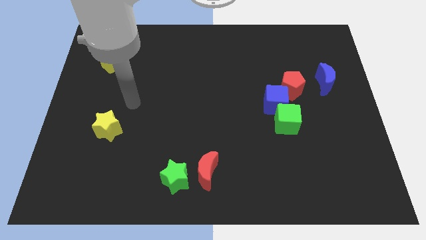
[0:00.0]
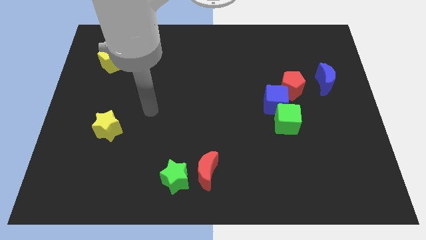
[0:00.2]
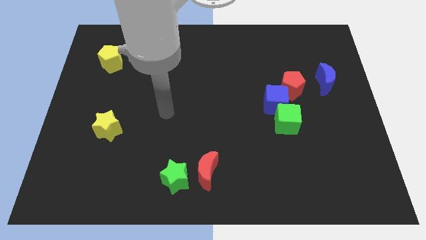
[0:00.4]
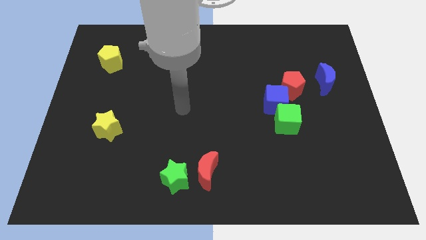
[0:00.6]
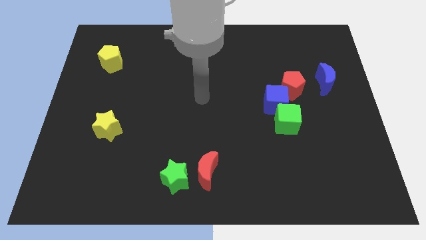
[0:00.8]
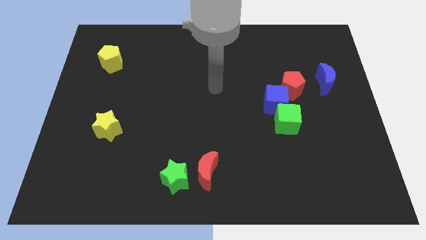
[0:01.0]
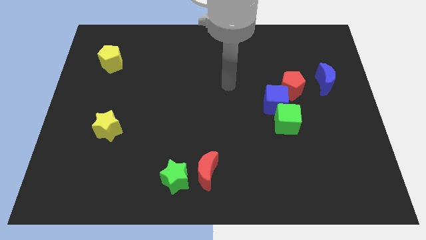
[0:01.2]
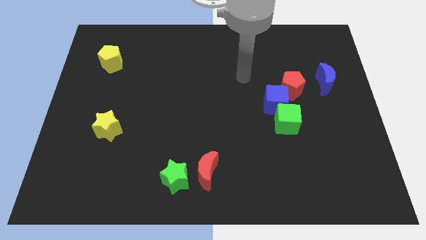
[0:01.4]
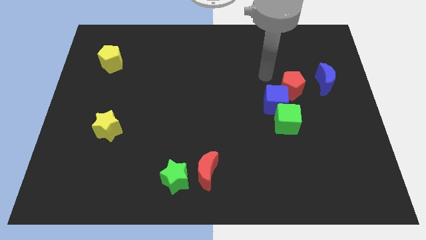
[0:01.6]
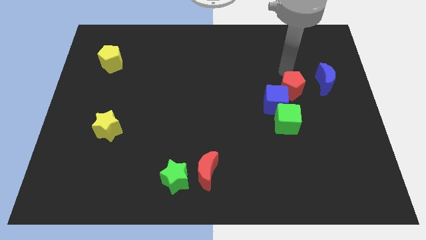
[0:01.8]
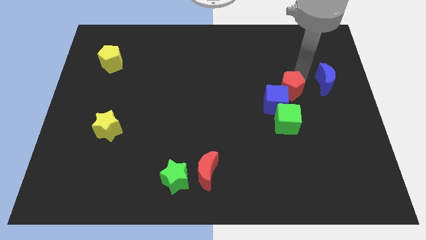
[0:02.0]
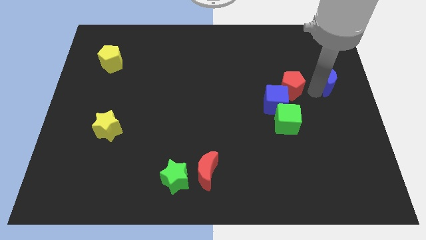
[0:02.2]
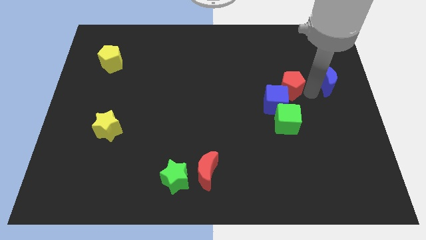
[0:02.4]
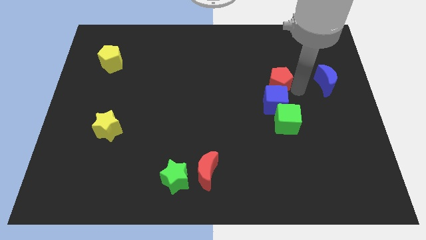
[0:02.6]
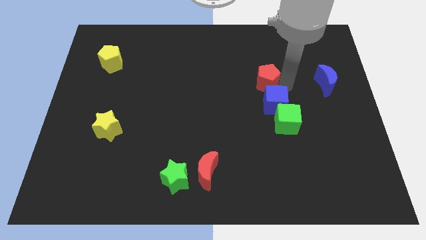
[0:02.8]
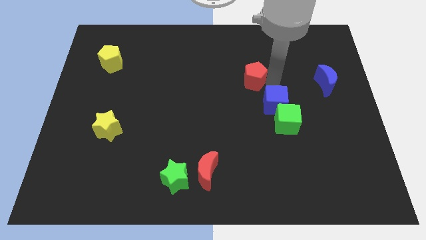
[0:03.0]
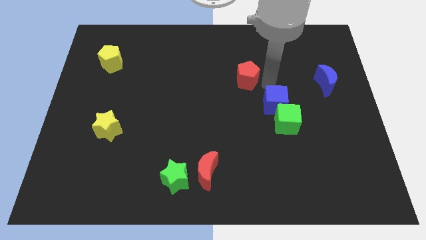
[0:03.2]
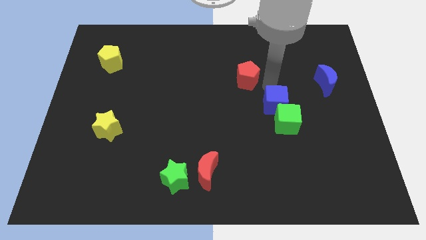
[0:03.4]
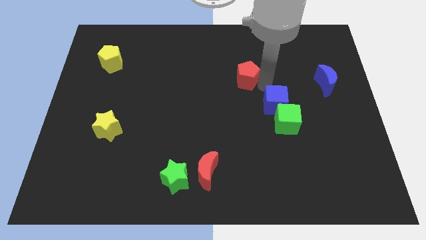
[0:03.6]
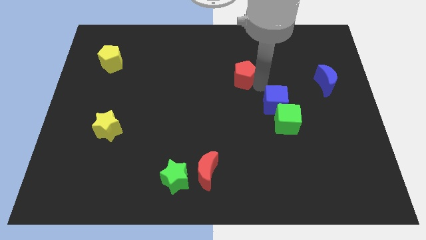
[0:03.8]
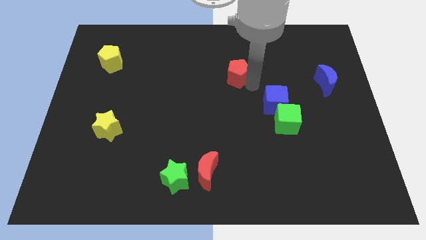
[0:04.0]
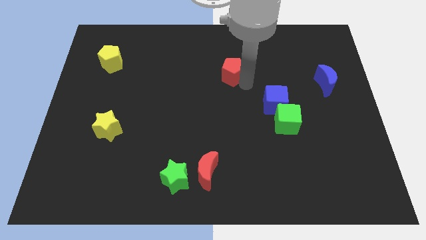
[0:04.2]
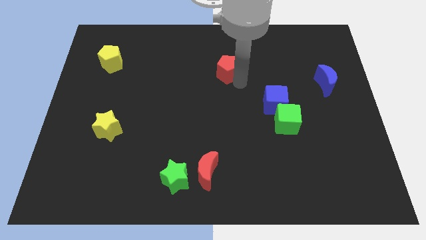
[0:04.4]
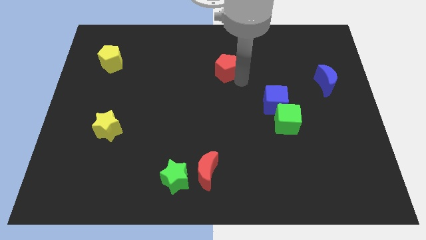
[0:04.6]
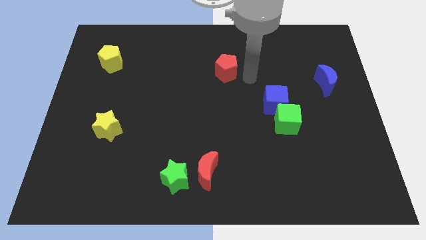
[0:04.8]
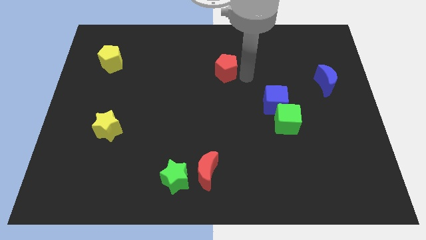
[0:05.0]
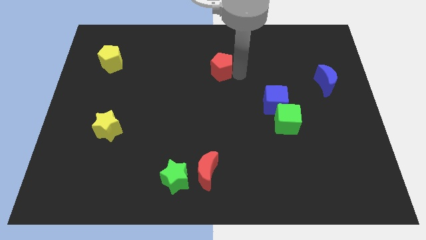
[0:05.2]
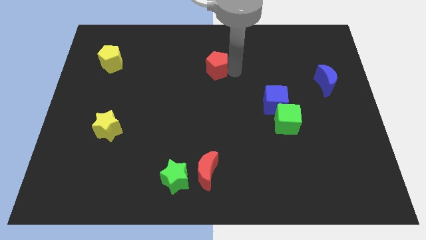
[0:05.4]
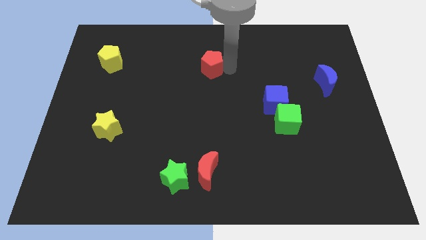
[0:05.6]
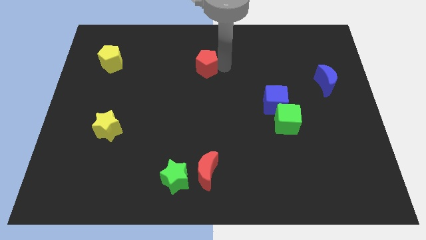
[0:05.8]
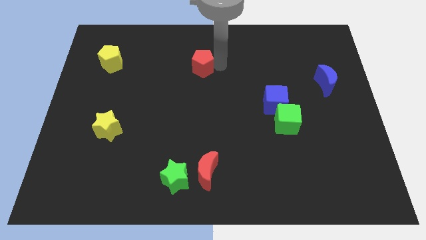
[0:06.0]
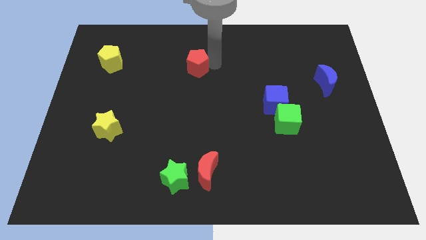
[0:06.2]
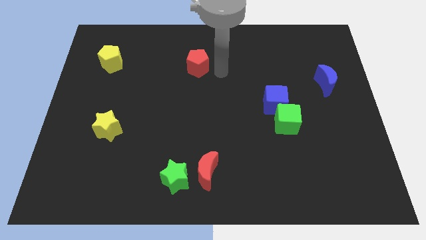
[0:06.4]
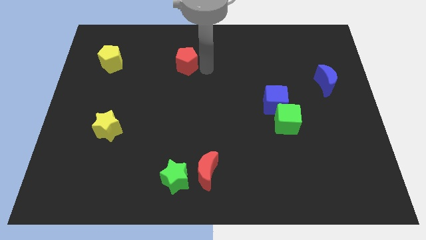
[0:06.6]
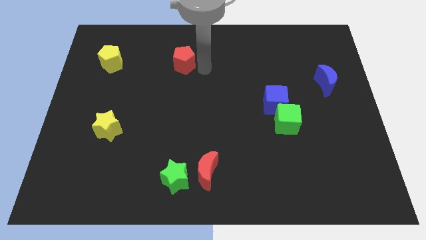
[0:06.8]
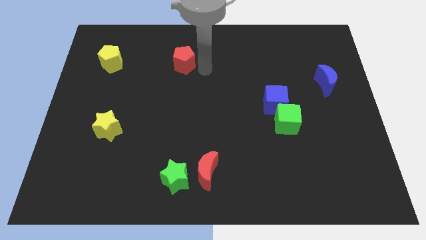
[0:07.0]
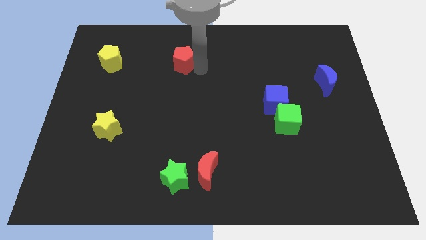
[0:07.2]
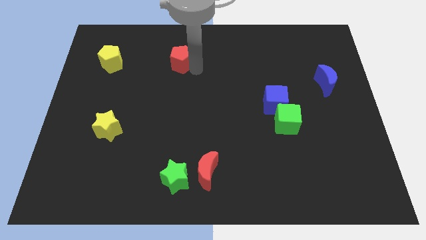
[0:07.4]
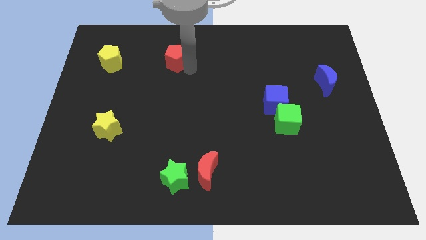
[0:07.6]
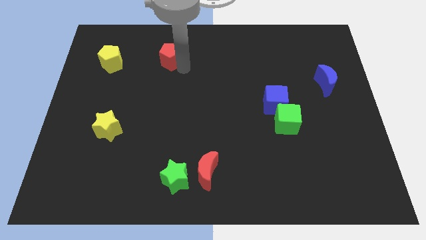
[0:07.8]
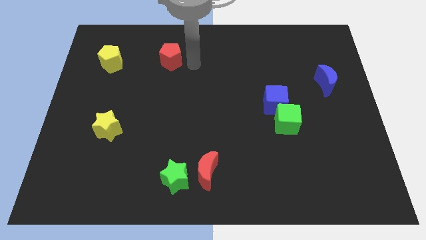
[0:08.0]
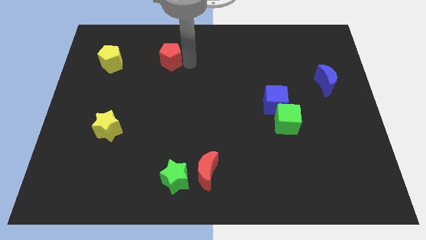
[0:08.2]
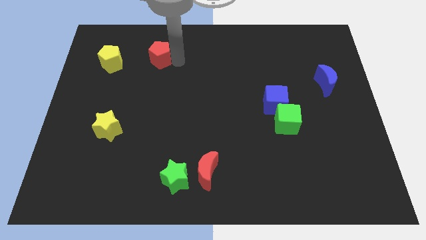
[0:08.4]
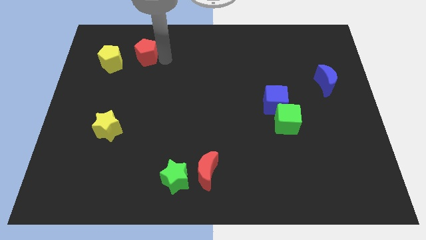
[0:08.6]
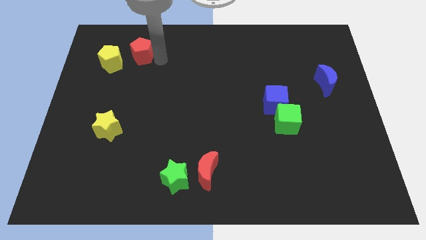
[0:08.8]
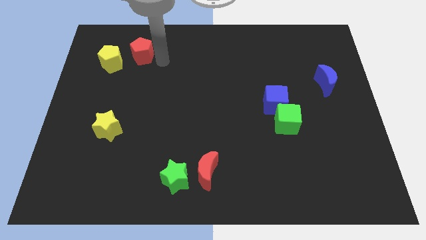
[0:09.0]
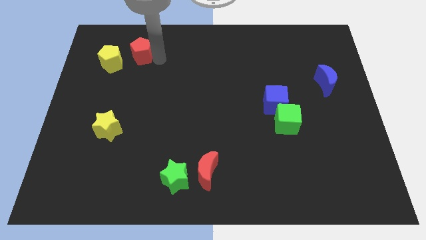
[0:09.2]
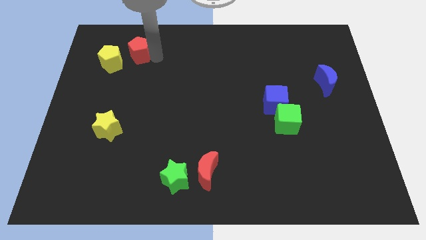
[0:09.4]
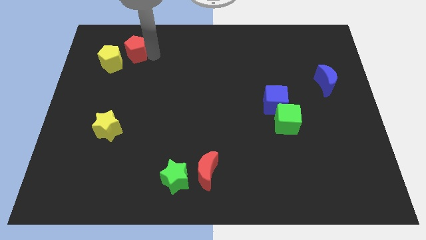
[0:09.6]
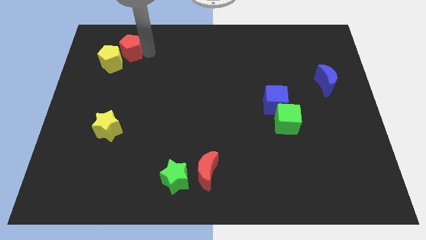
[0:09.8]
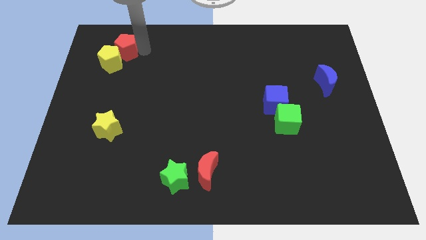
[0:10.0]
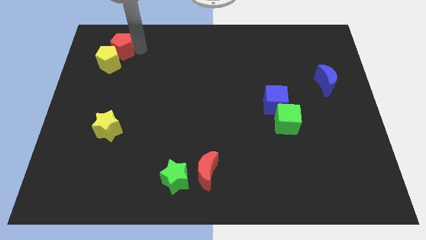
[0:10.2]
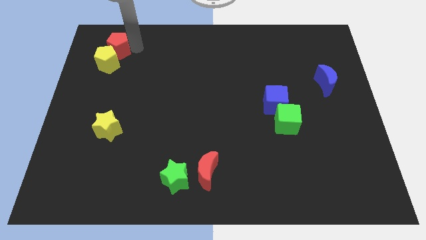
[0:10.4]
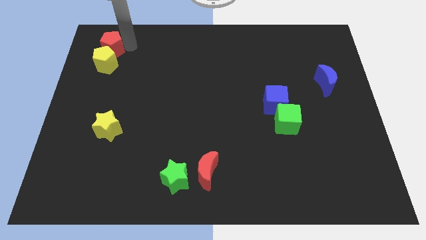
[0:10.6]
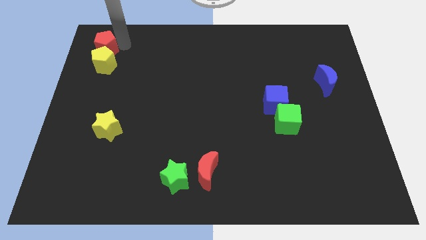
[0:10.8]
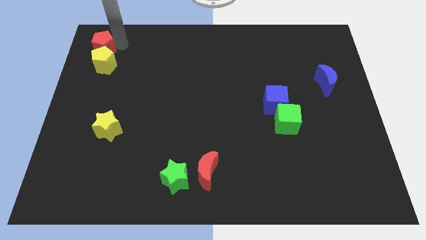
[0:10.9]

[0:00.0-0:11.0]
put the red pentagon to the upper left corner
